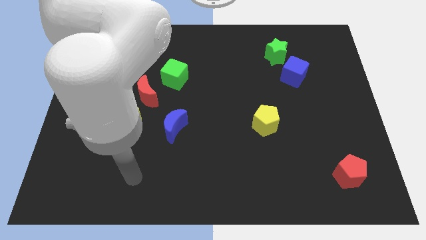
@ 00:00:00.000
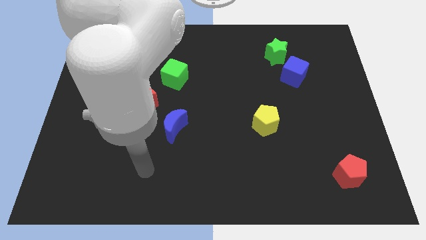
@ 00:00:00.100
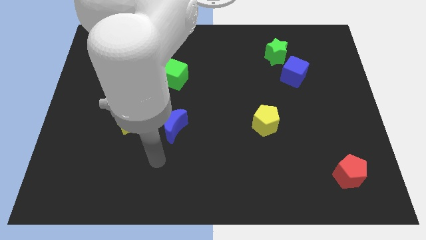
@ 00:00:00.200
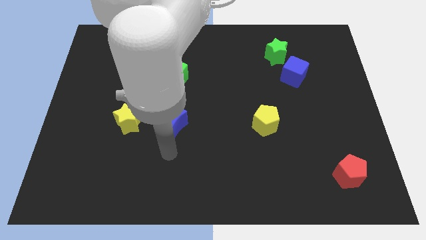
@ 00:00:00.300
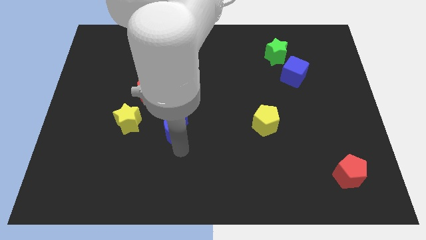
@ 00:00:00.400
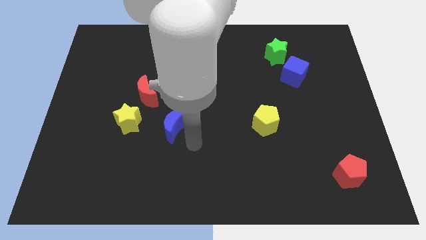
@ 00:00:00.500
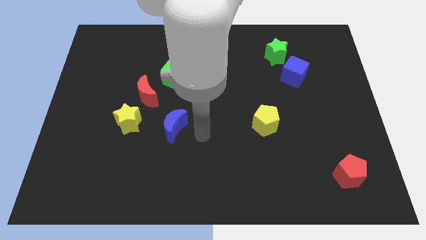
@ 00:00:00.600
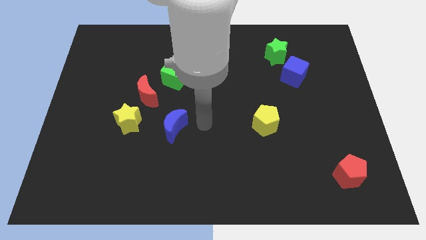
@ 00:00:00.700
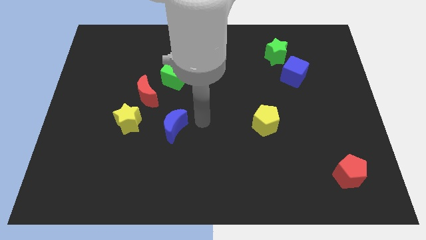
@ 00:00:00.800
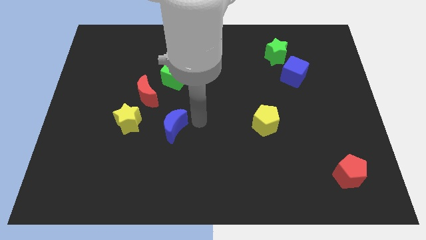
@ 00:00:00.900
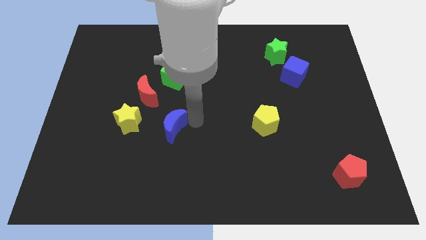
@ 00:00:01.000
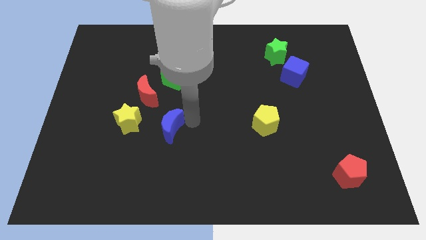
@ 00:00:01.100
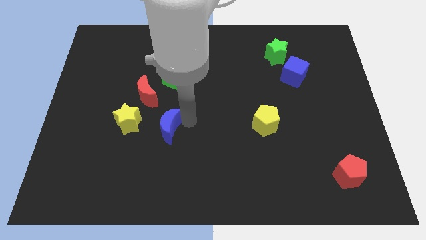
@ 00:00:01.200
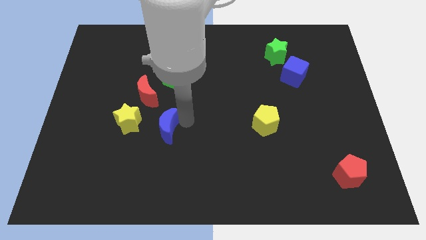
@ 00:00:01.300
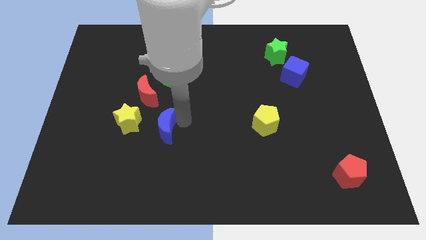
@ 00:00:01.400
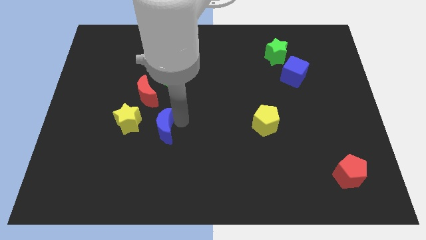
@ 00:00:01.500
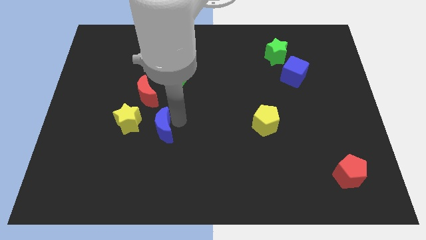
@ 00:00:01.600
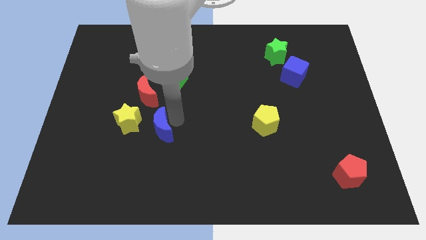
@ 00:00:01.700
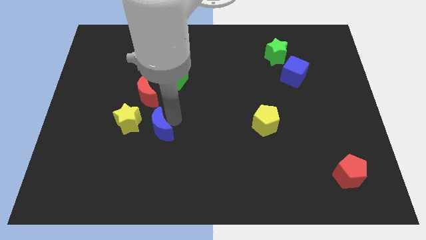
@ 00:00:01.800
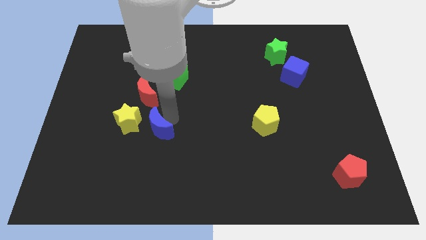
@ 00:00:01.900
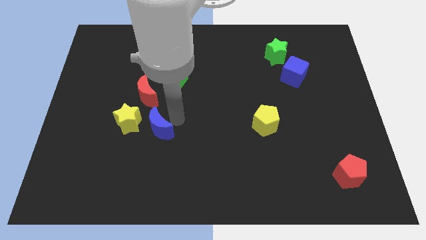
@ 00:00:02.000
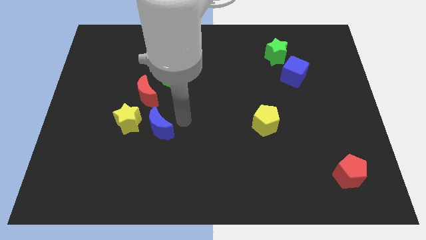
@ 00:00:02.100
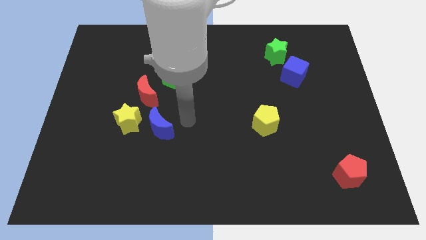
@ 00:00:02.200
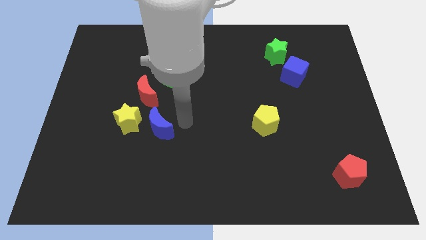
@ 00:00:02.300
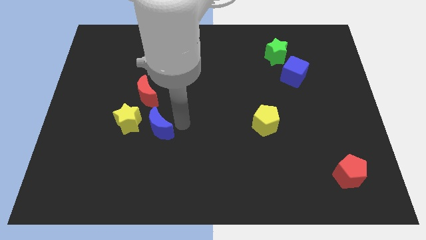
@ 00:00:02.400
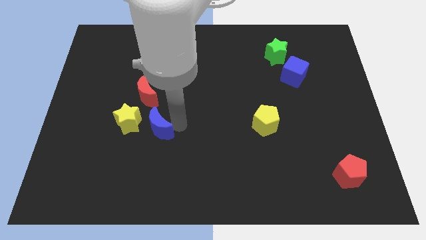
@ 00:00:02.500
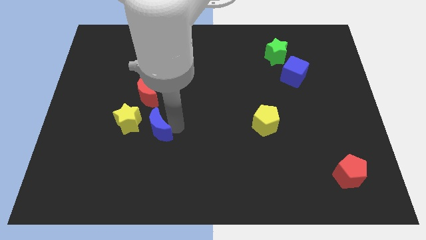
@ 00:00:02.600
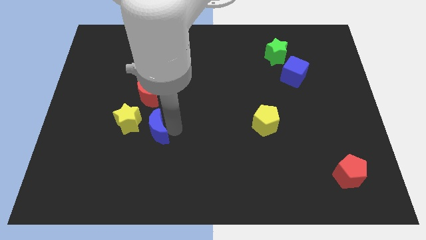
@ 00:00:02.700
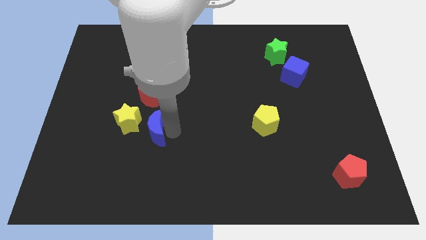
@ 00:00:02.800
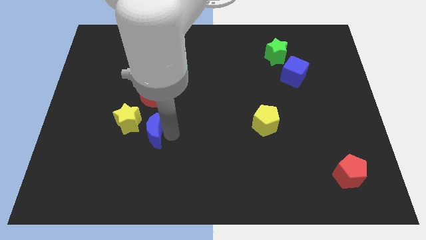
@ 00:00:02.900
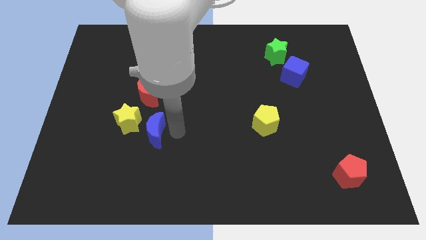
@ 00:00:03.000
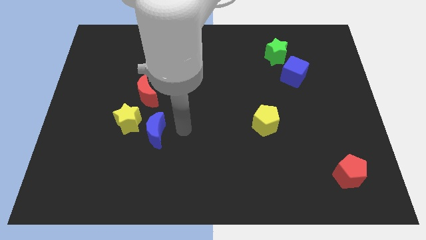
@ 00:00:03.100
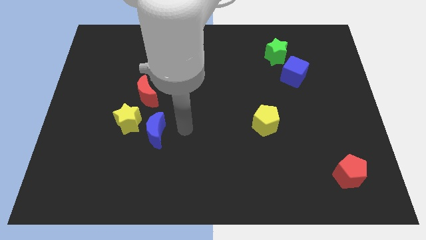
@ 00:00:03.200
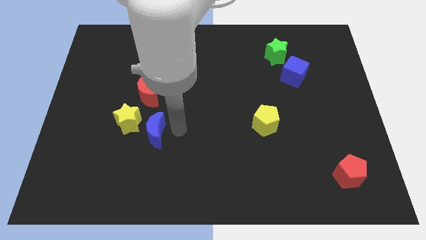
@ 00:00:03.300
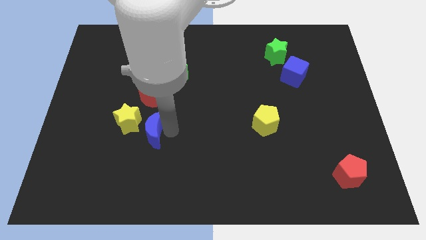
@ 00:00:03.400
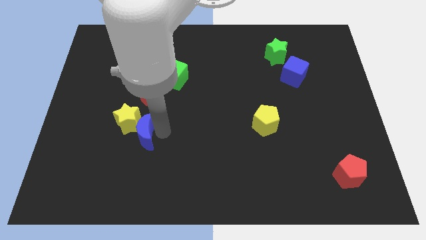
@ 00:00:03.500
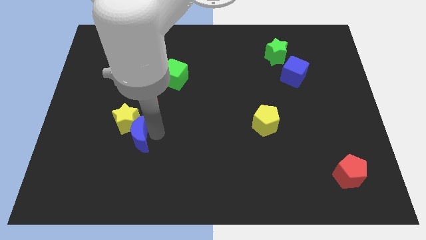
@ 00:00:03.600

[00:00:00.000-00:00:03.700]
slide the blue moon somewhat to the left

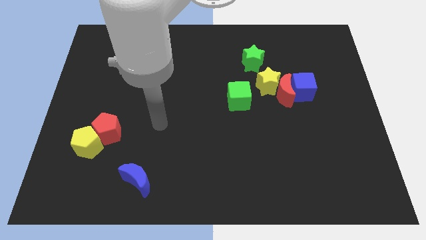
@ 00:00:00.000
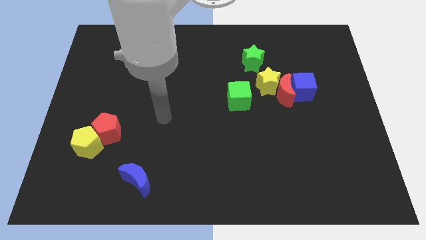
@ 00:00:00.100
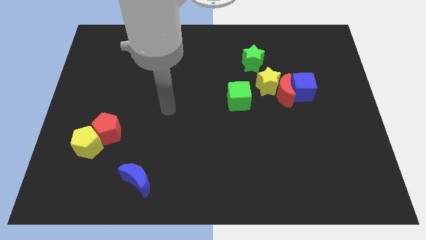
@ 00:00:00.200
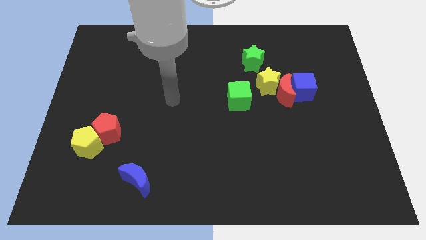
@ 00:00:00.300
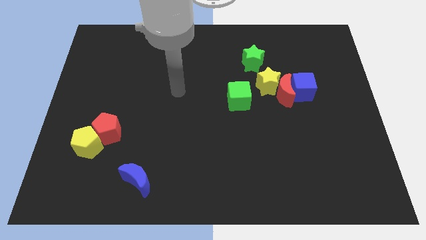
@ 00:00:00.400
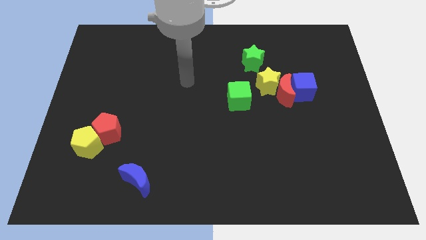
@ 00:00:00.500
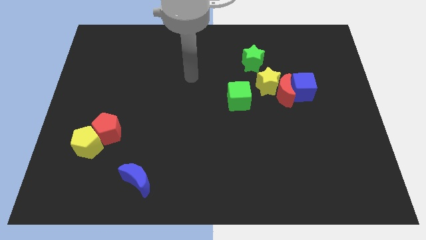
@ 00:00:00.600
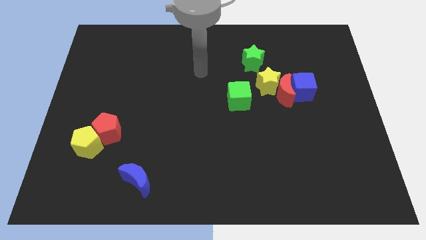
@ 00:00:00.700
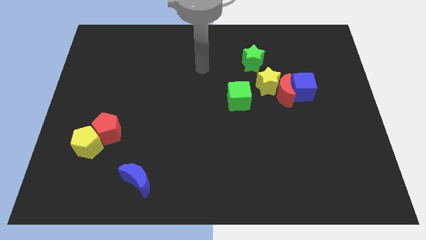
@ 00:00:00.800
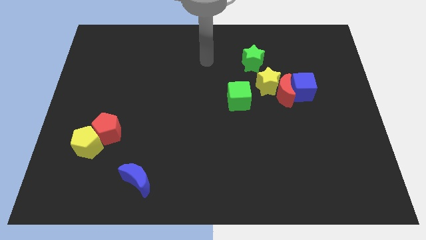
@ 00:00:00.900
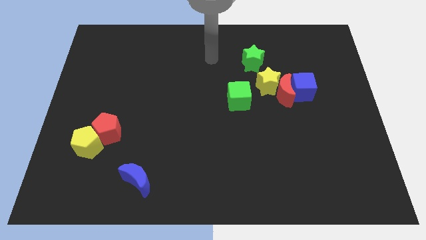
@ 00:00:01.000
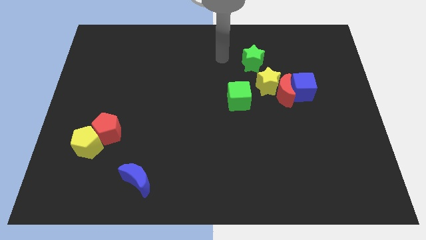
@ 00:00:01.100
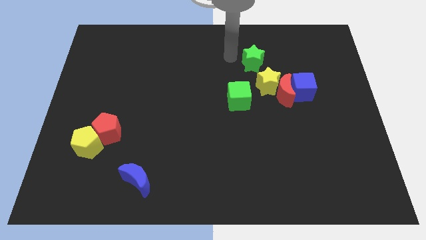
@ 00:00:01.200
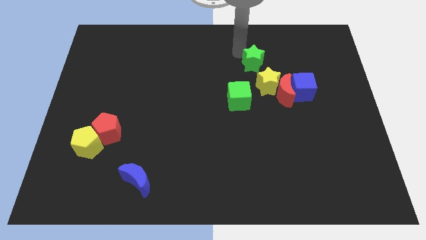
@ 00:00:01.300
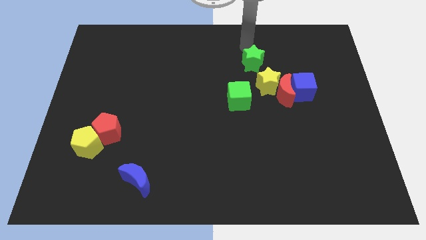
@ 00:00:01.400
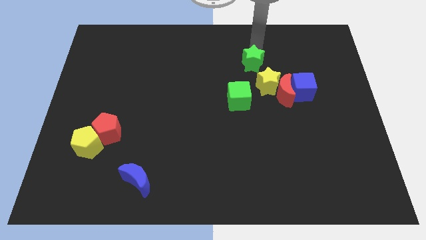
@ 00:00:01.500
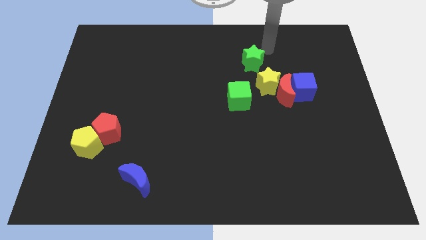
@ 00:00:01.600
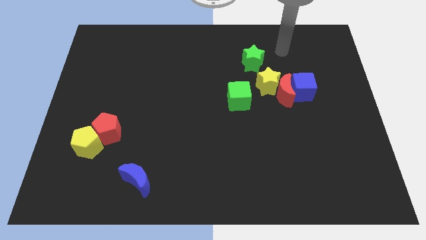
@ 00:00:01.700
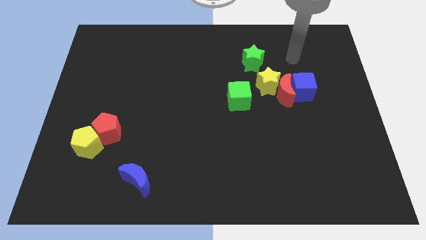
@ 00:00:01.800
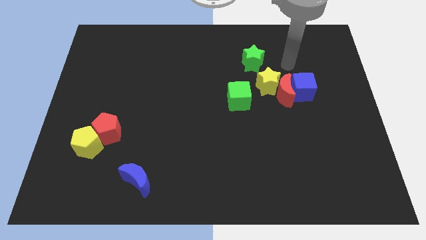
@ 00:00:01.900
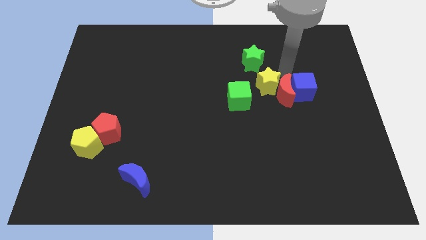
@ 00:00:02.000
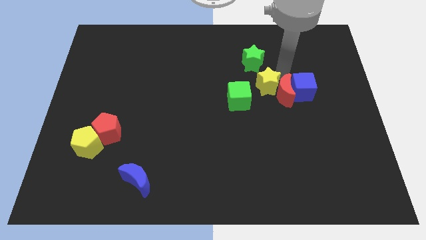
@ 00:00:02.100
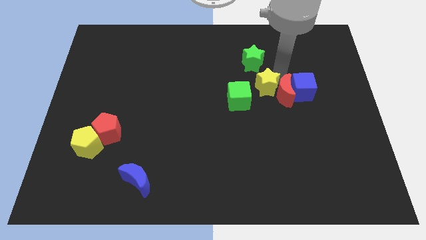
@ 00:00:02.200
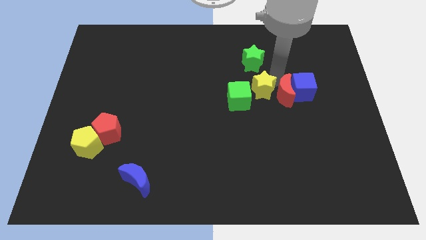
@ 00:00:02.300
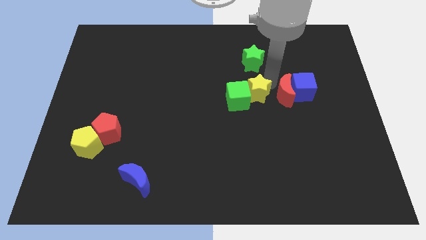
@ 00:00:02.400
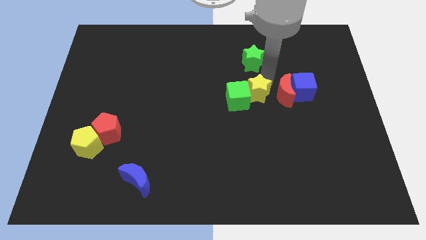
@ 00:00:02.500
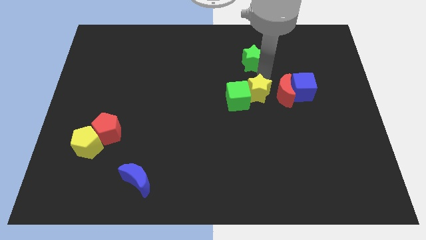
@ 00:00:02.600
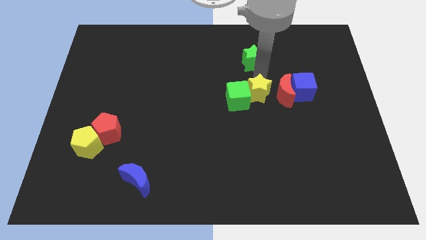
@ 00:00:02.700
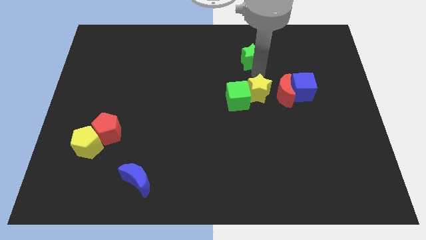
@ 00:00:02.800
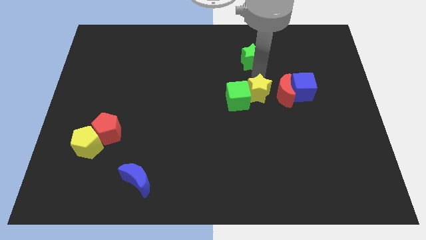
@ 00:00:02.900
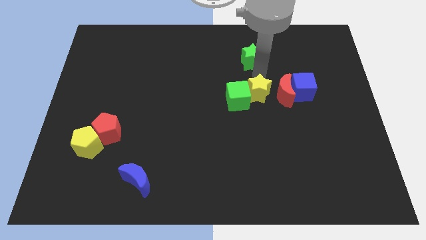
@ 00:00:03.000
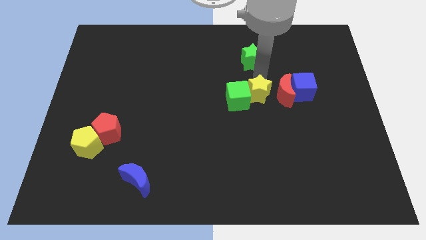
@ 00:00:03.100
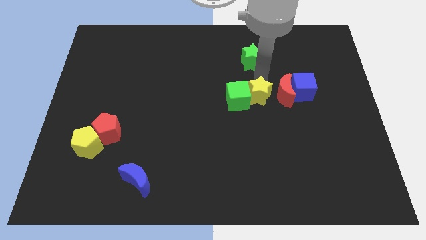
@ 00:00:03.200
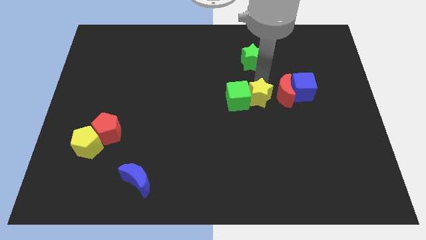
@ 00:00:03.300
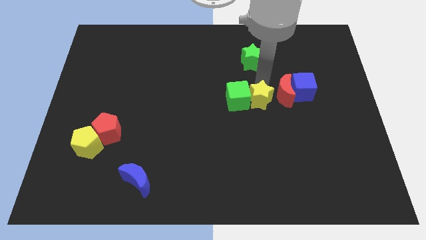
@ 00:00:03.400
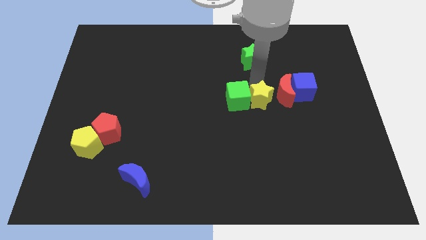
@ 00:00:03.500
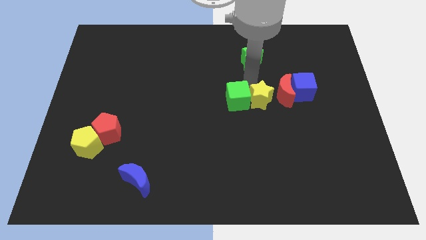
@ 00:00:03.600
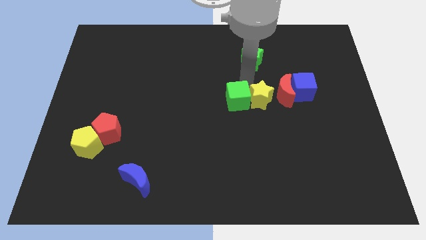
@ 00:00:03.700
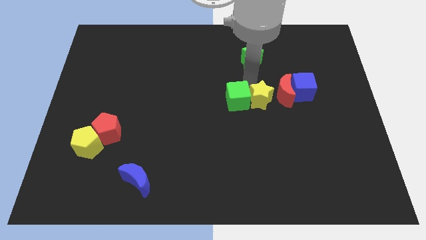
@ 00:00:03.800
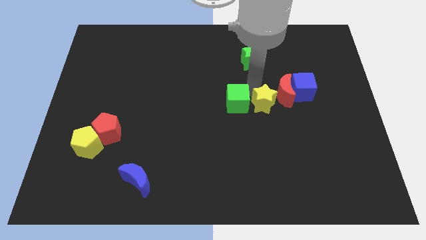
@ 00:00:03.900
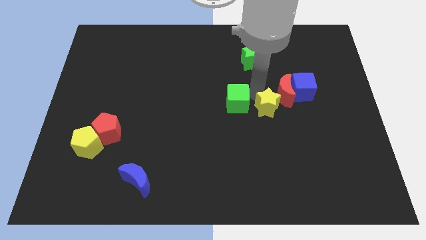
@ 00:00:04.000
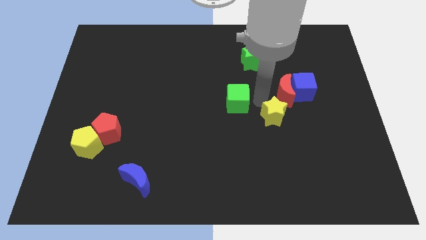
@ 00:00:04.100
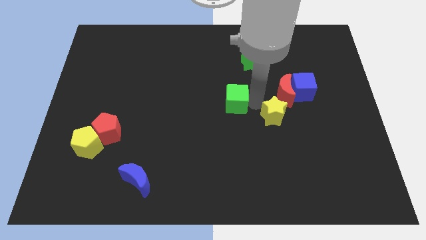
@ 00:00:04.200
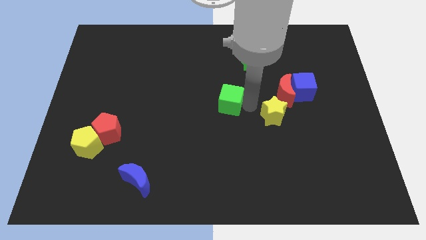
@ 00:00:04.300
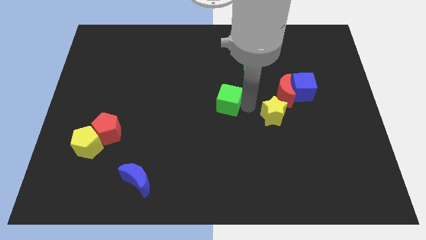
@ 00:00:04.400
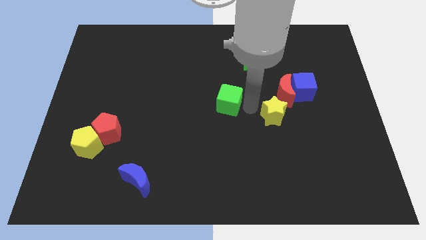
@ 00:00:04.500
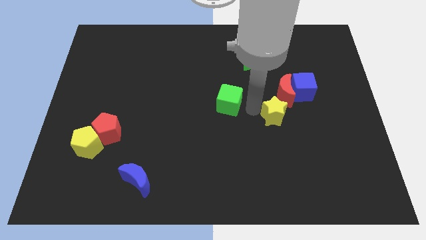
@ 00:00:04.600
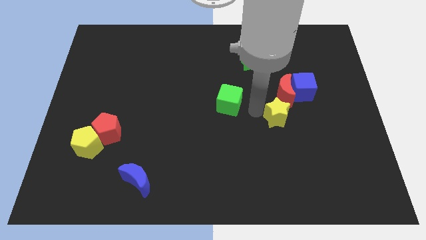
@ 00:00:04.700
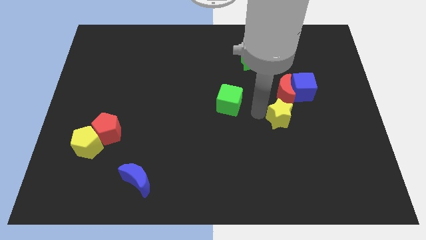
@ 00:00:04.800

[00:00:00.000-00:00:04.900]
slightly push the yellow star down and then right
